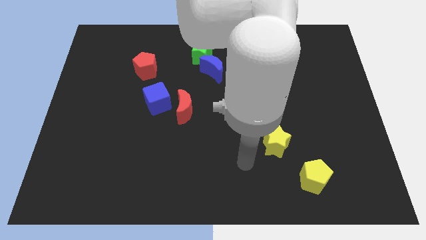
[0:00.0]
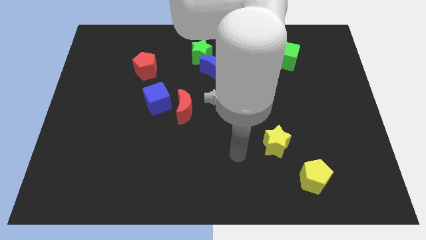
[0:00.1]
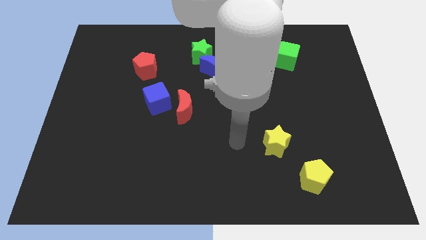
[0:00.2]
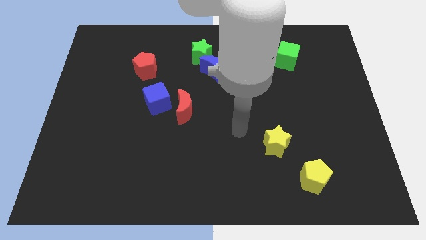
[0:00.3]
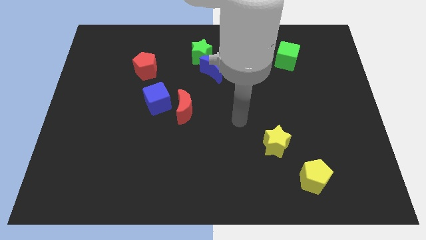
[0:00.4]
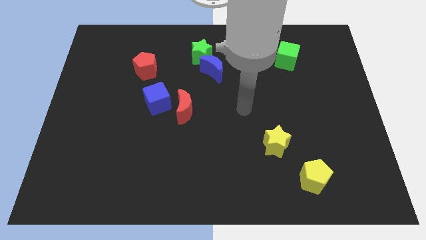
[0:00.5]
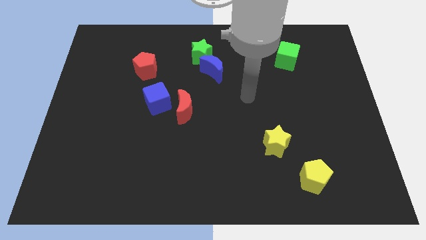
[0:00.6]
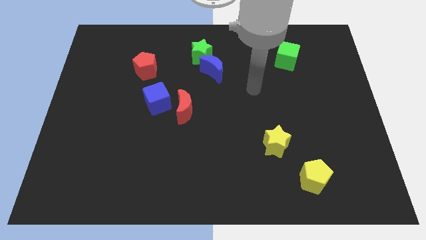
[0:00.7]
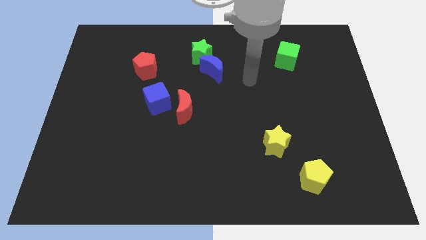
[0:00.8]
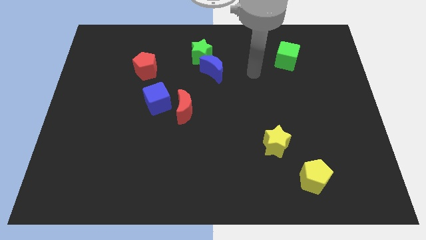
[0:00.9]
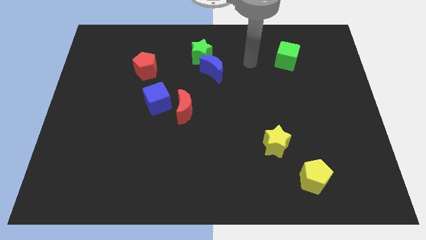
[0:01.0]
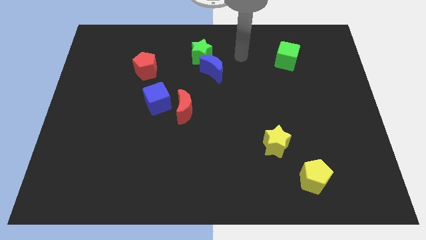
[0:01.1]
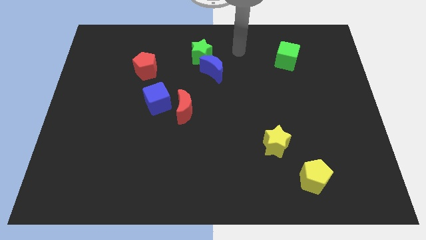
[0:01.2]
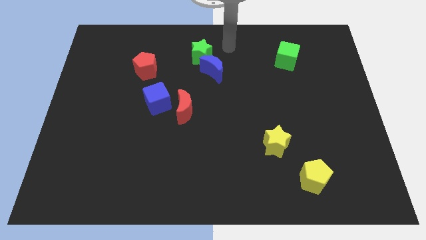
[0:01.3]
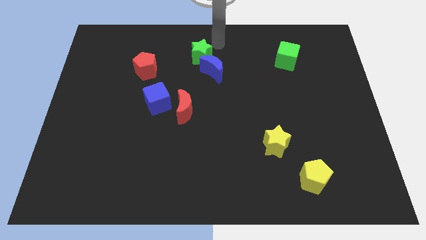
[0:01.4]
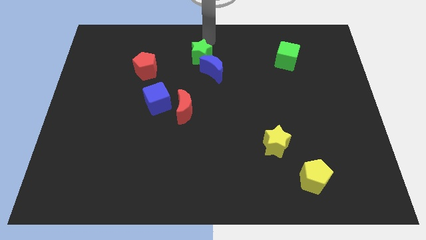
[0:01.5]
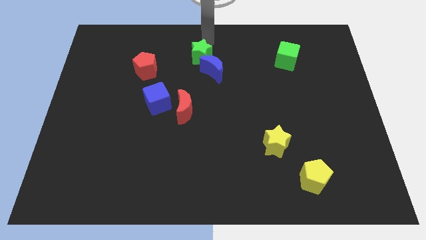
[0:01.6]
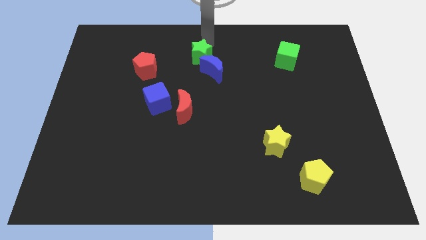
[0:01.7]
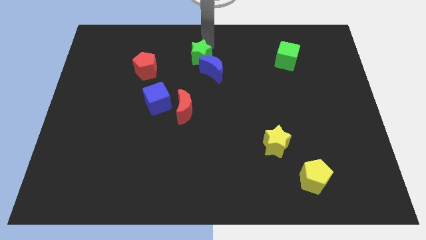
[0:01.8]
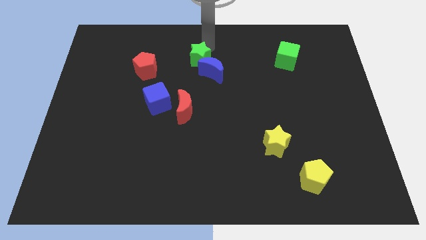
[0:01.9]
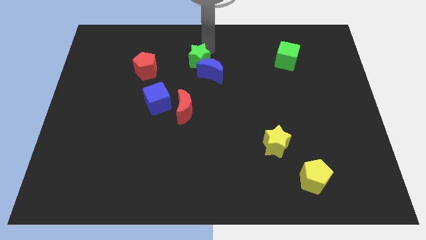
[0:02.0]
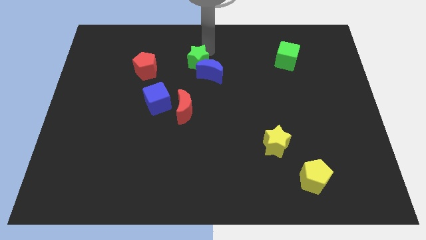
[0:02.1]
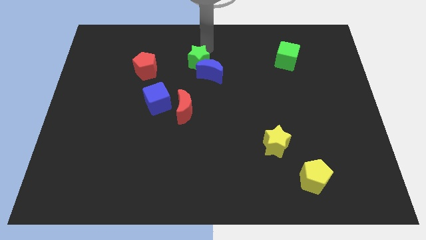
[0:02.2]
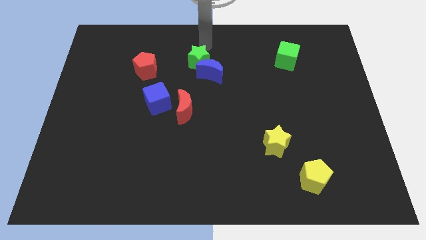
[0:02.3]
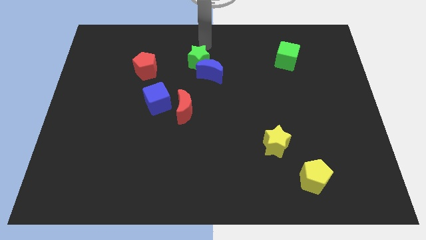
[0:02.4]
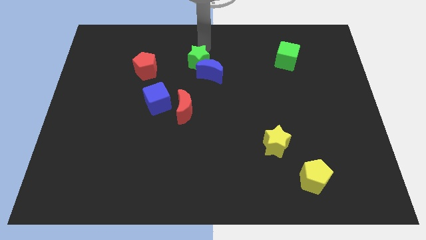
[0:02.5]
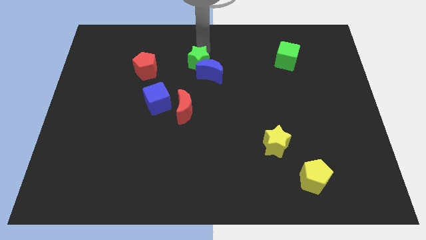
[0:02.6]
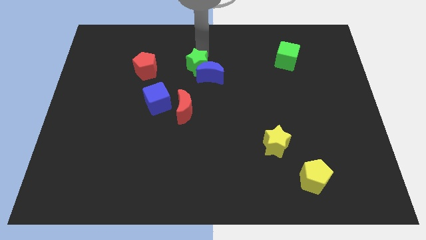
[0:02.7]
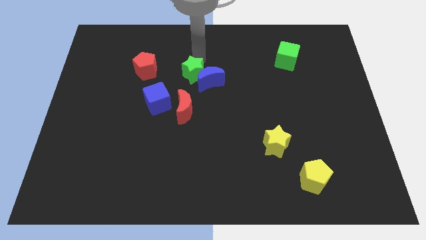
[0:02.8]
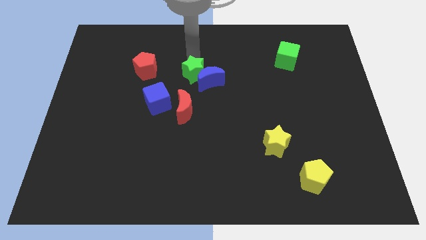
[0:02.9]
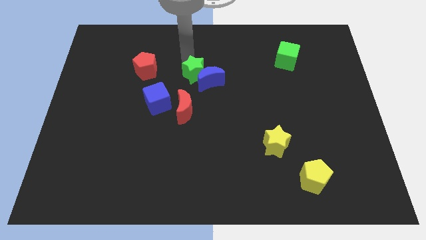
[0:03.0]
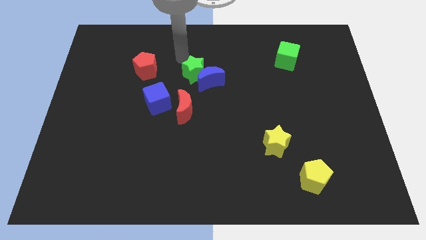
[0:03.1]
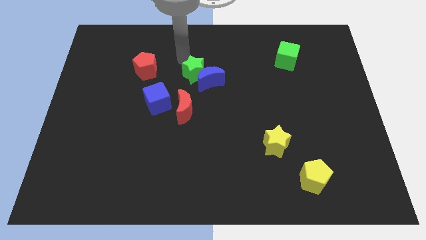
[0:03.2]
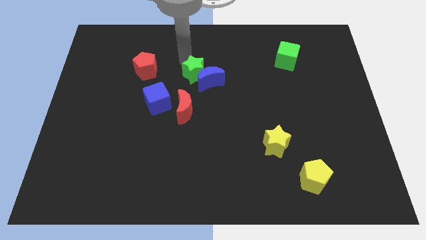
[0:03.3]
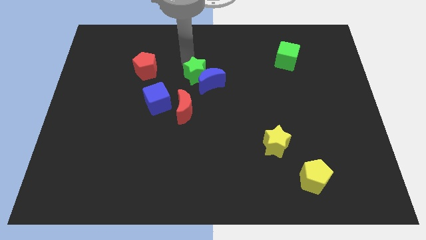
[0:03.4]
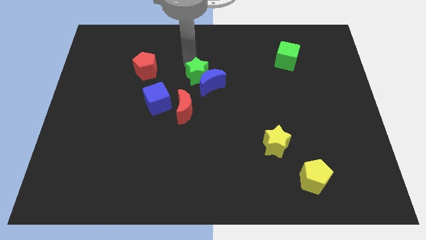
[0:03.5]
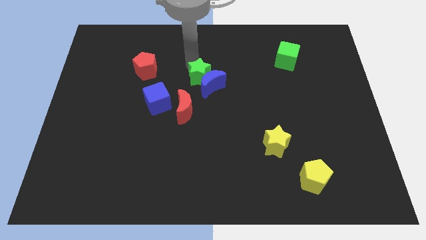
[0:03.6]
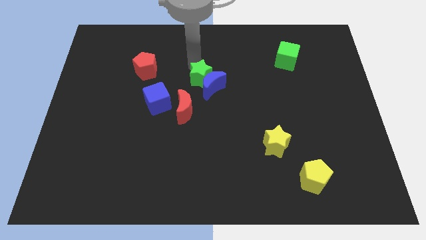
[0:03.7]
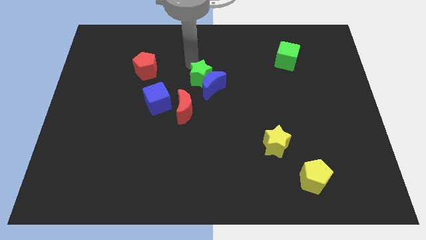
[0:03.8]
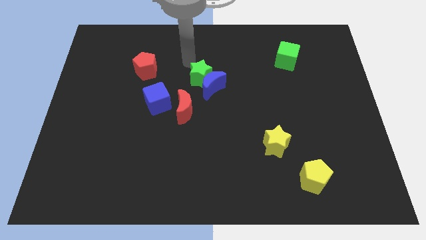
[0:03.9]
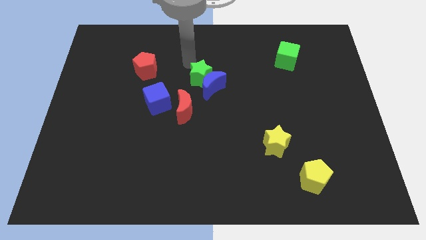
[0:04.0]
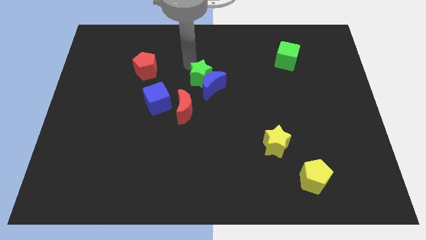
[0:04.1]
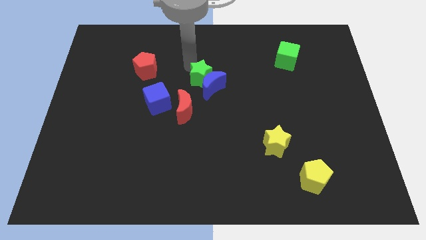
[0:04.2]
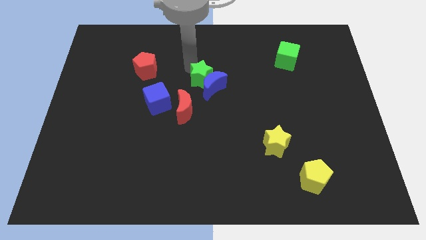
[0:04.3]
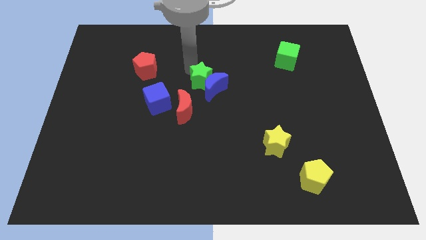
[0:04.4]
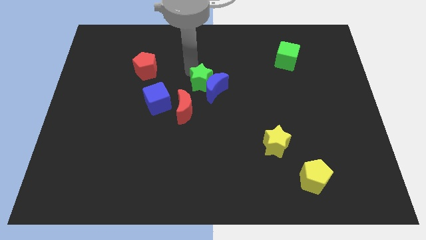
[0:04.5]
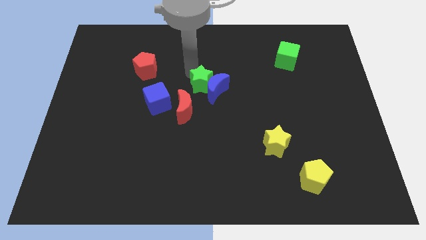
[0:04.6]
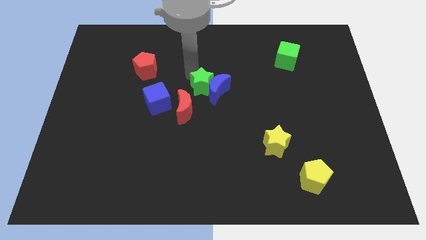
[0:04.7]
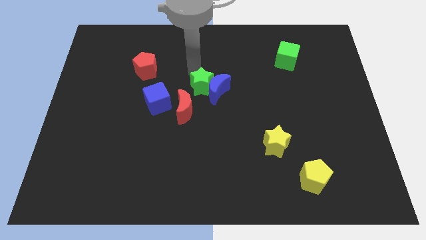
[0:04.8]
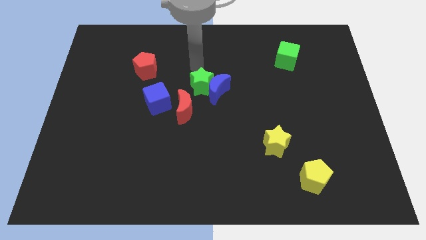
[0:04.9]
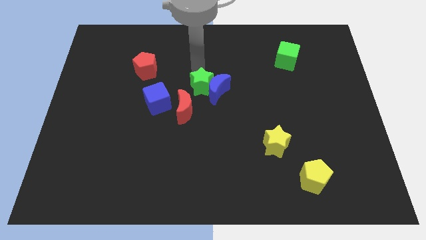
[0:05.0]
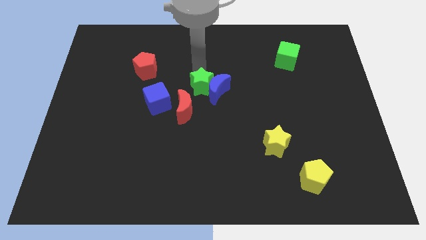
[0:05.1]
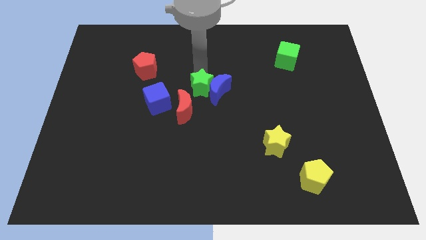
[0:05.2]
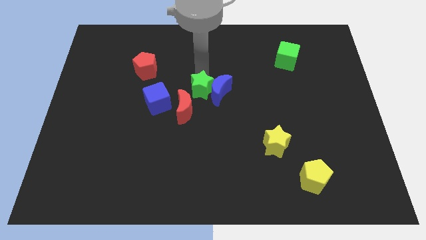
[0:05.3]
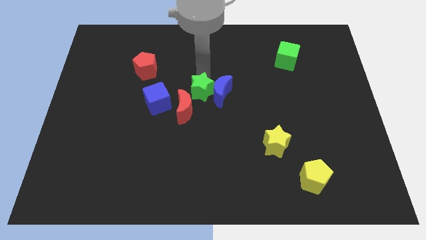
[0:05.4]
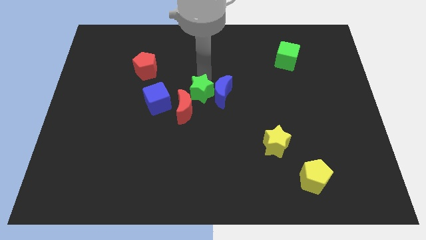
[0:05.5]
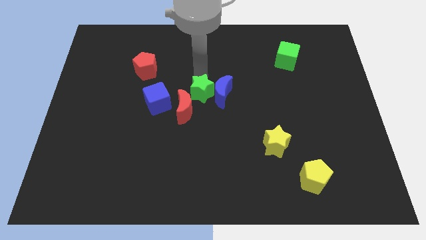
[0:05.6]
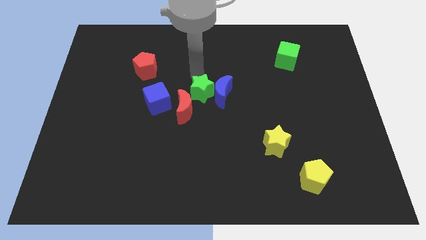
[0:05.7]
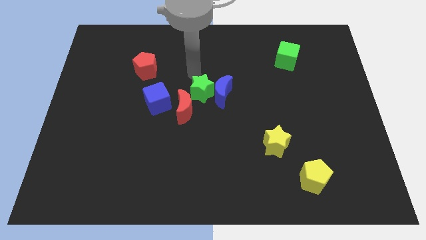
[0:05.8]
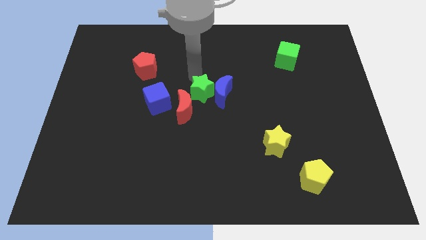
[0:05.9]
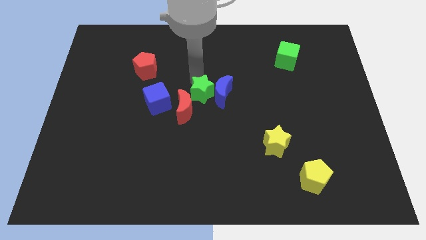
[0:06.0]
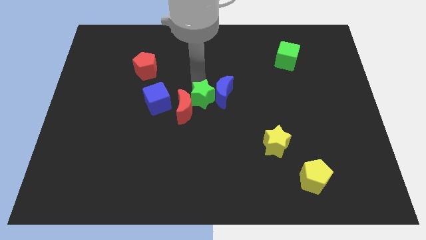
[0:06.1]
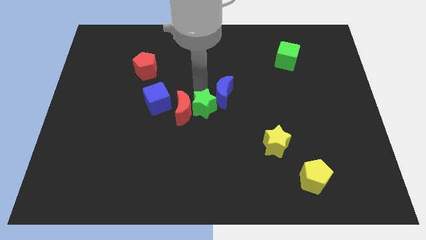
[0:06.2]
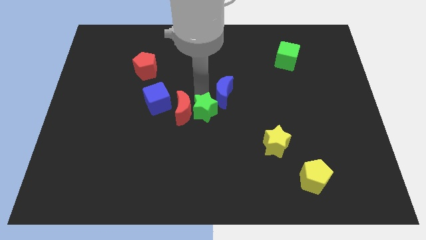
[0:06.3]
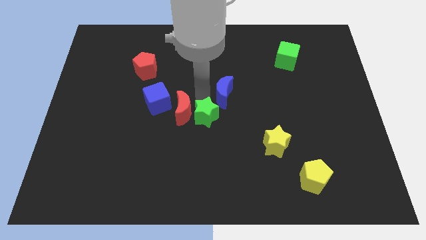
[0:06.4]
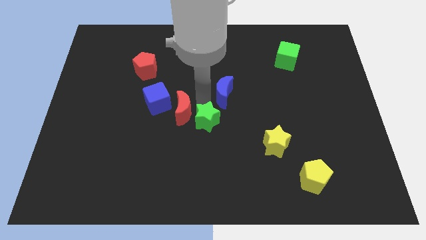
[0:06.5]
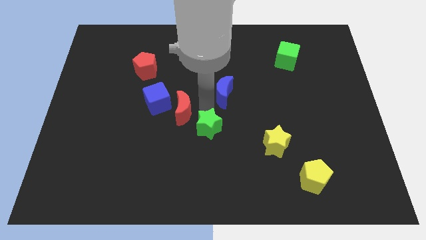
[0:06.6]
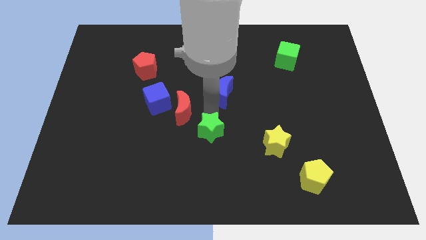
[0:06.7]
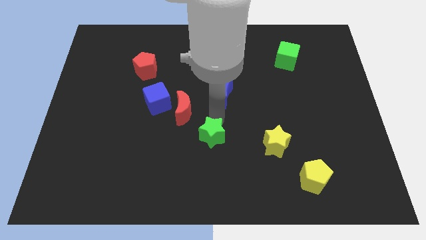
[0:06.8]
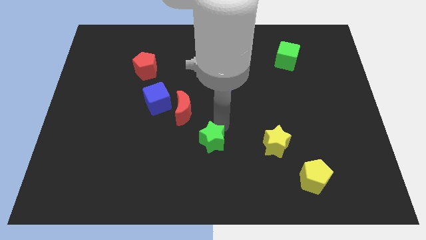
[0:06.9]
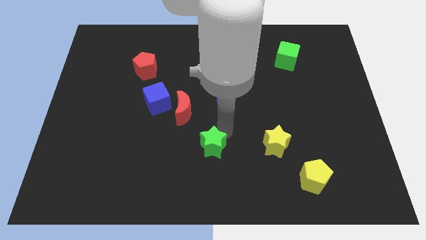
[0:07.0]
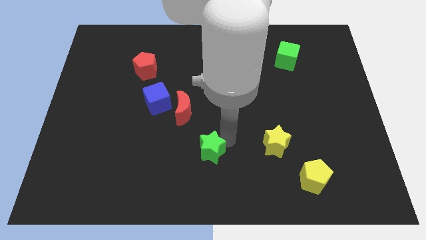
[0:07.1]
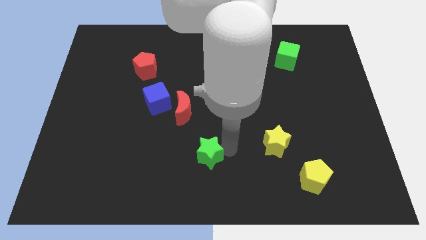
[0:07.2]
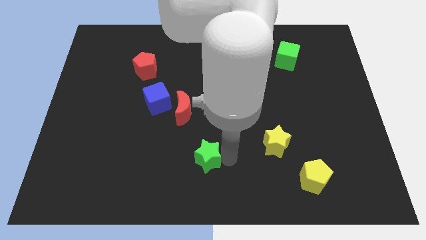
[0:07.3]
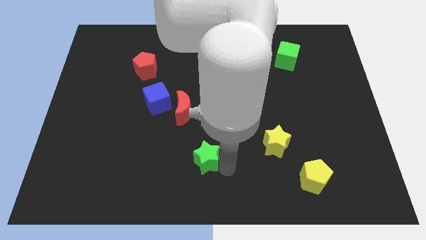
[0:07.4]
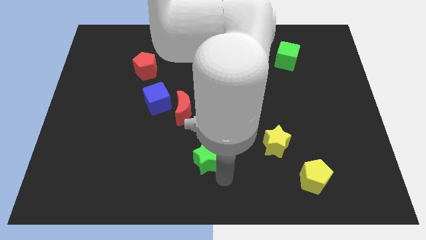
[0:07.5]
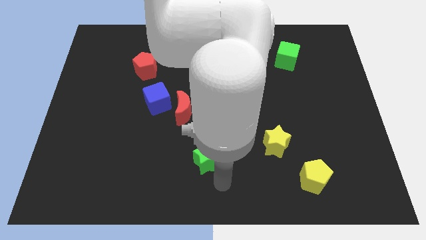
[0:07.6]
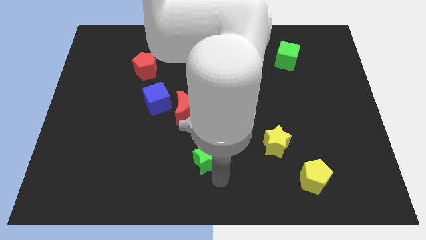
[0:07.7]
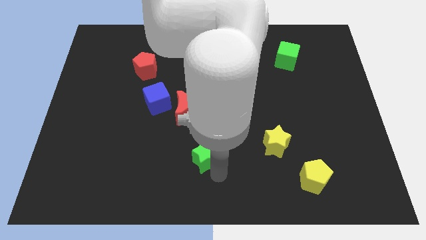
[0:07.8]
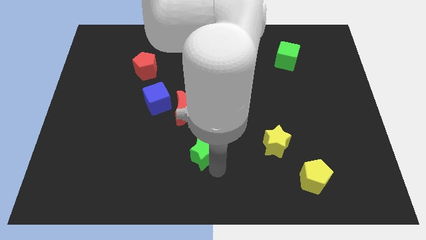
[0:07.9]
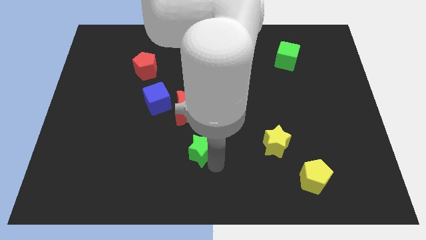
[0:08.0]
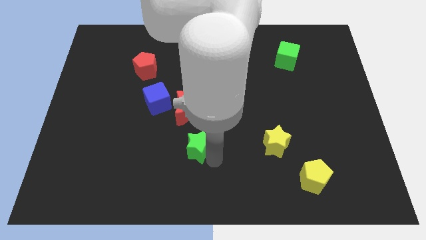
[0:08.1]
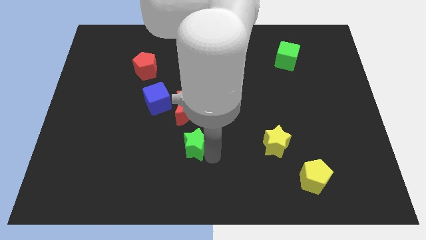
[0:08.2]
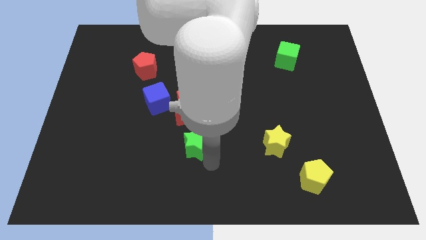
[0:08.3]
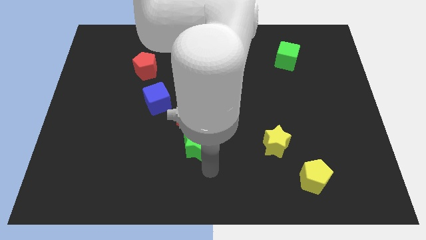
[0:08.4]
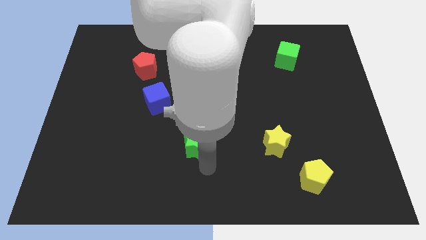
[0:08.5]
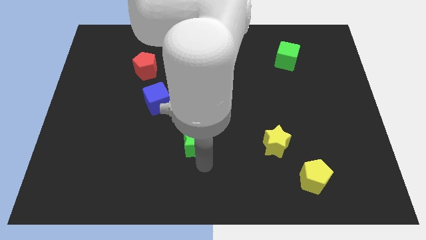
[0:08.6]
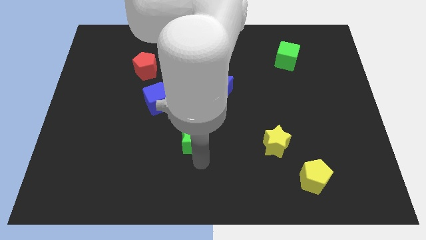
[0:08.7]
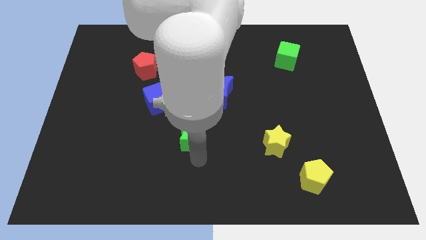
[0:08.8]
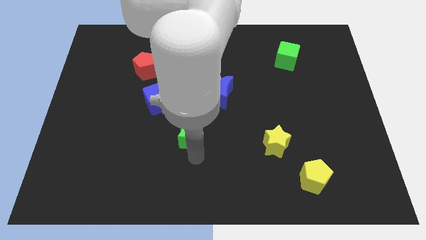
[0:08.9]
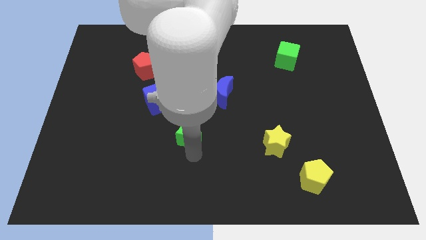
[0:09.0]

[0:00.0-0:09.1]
push the green star diagonally down and to the right of the blue cube
